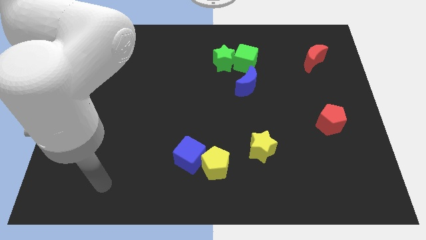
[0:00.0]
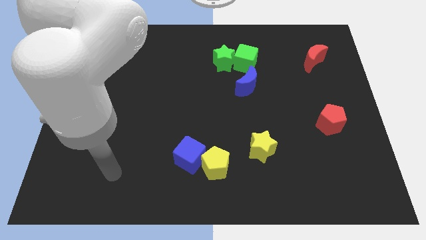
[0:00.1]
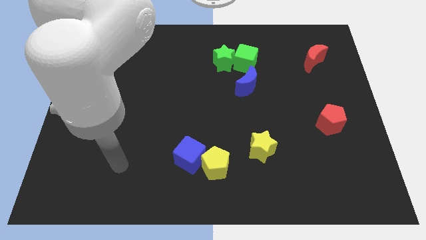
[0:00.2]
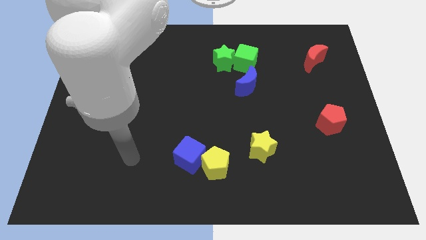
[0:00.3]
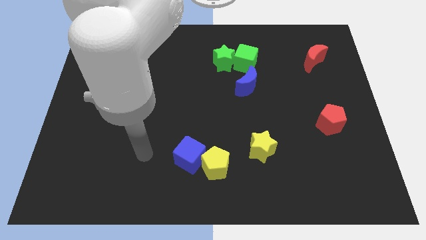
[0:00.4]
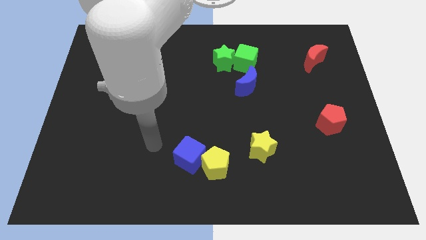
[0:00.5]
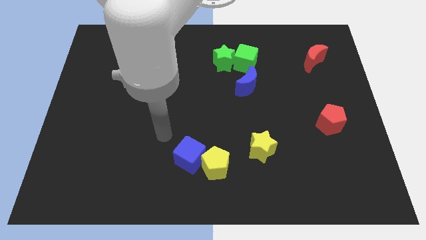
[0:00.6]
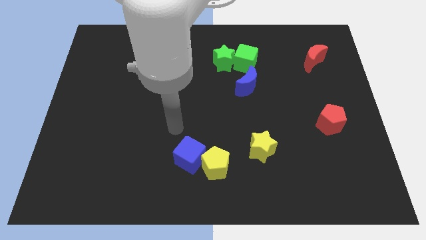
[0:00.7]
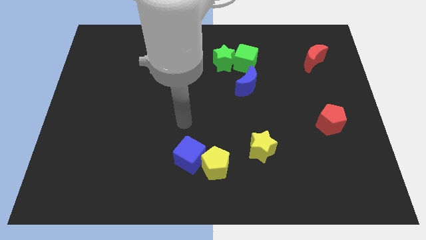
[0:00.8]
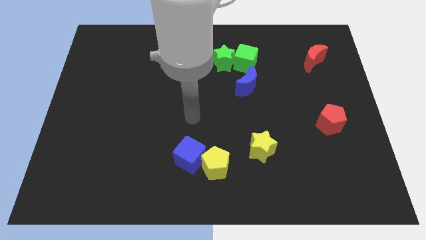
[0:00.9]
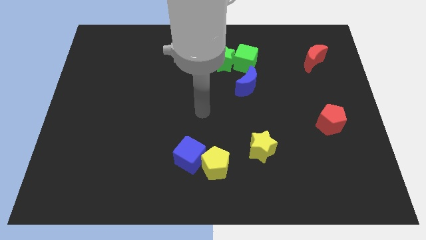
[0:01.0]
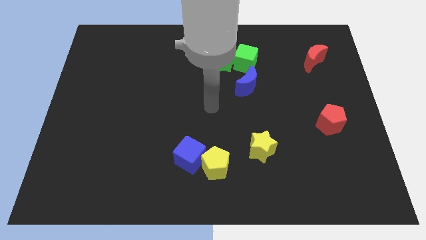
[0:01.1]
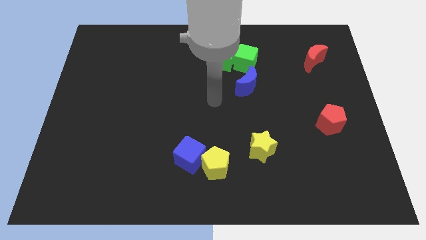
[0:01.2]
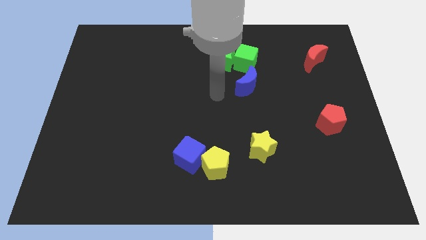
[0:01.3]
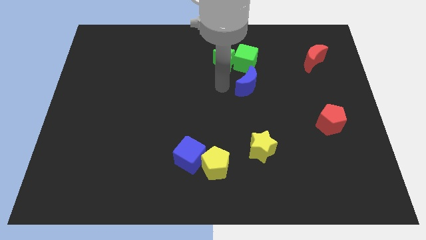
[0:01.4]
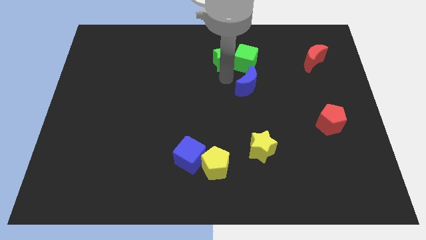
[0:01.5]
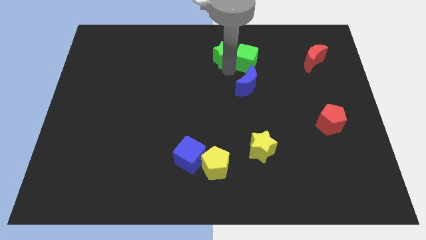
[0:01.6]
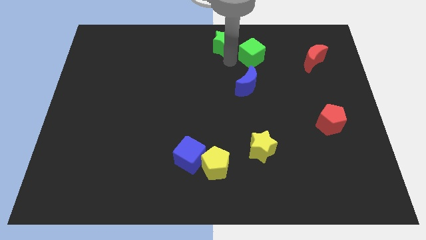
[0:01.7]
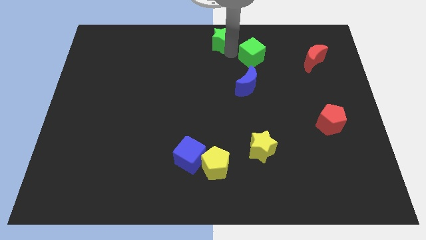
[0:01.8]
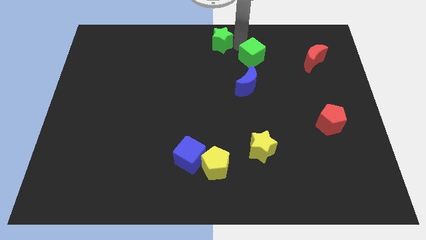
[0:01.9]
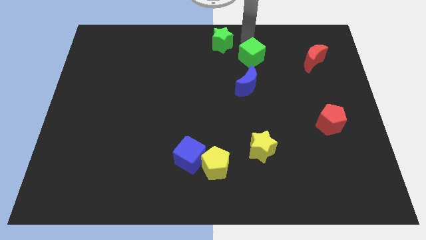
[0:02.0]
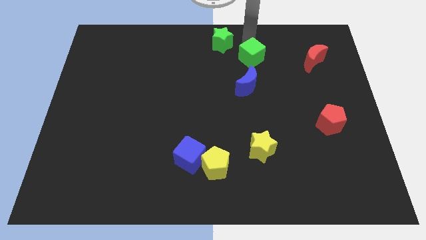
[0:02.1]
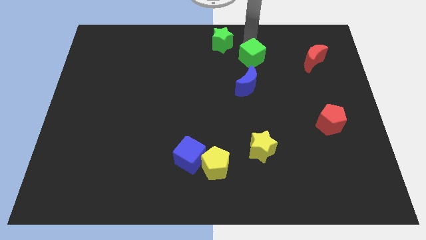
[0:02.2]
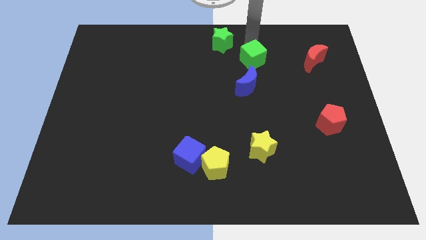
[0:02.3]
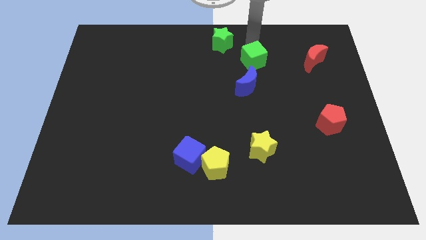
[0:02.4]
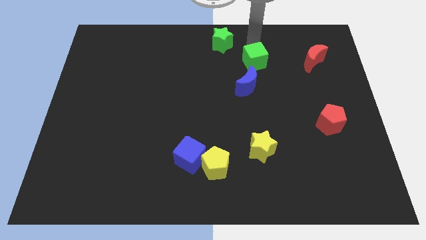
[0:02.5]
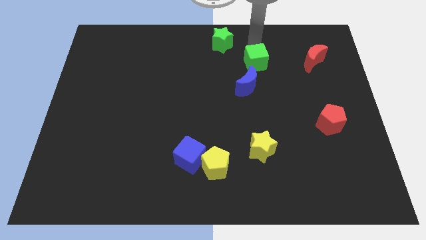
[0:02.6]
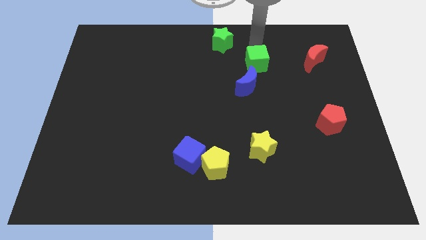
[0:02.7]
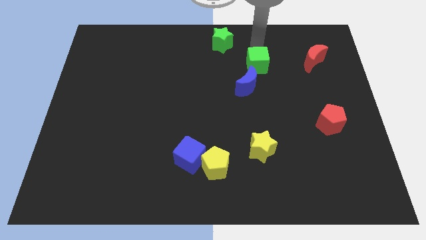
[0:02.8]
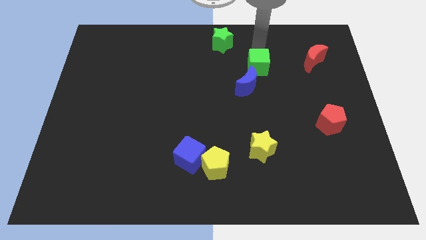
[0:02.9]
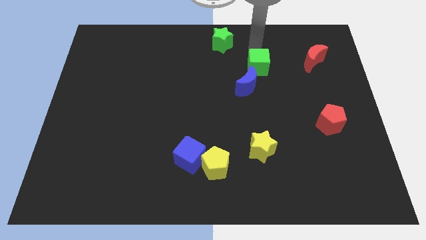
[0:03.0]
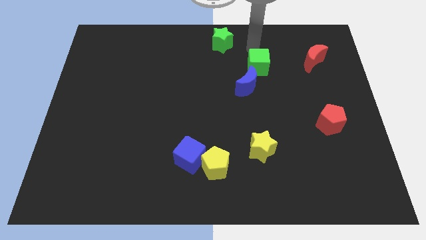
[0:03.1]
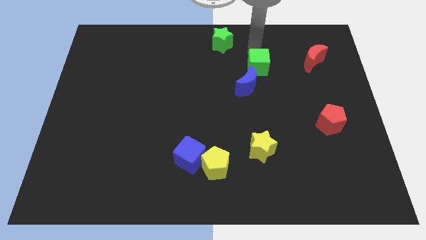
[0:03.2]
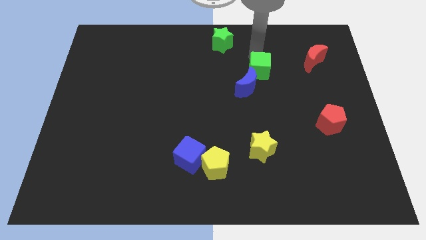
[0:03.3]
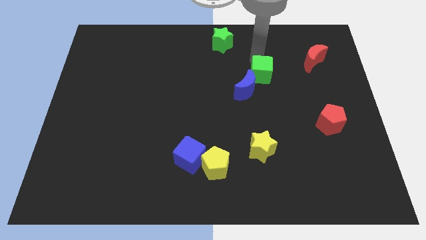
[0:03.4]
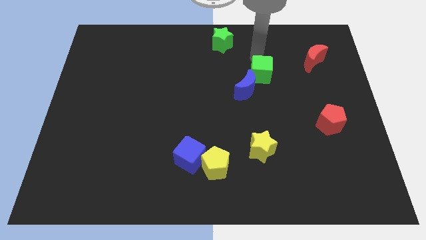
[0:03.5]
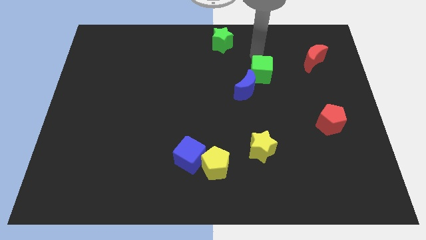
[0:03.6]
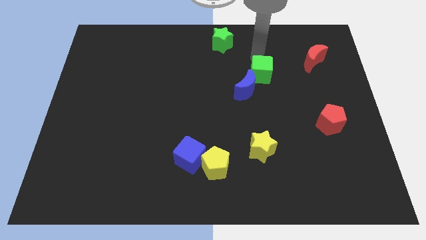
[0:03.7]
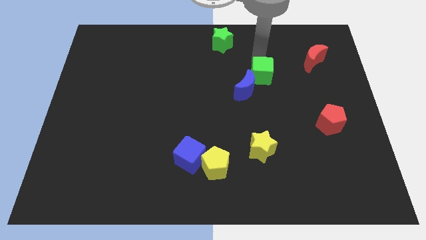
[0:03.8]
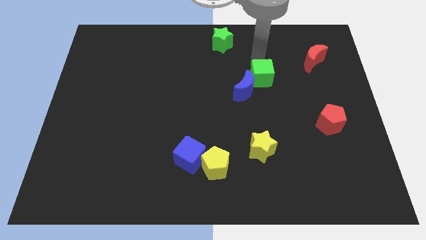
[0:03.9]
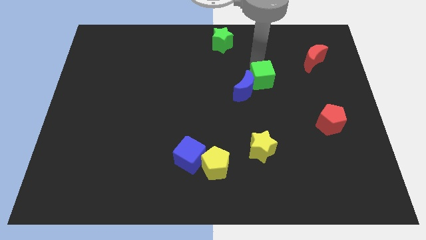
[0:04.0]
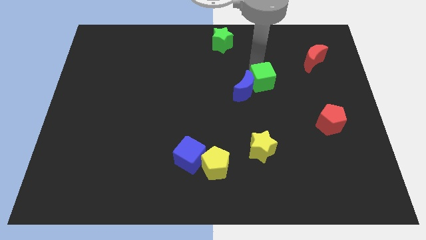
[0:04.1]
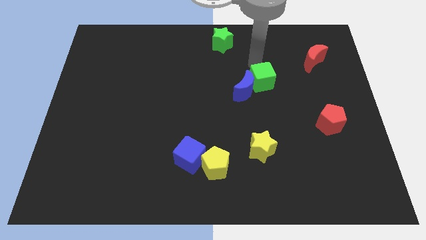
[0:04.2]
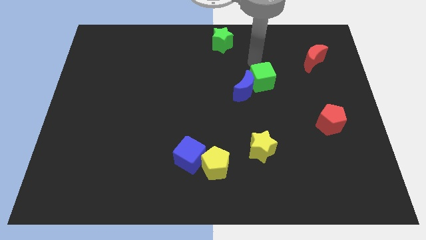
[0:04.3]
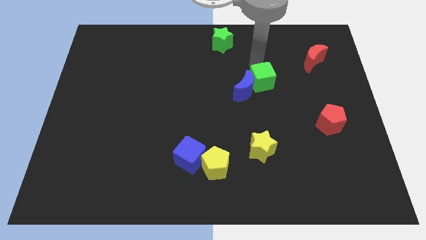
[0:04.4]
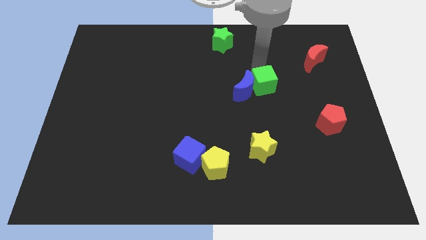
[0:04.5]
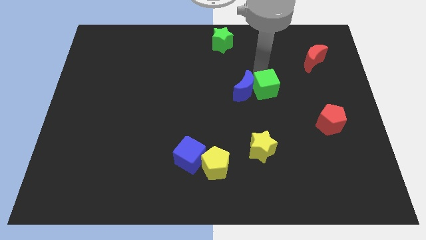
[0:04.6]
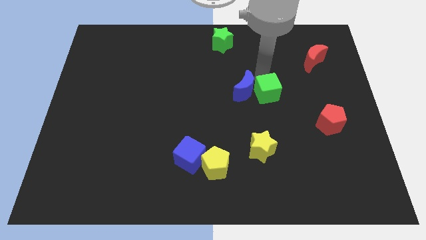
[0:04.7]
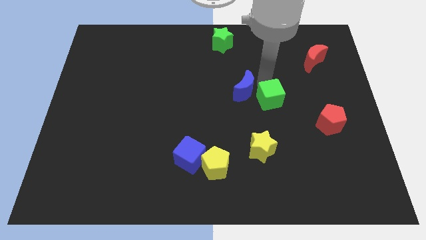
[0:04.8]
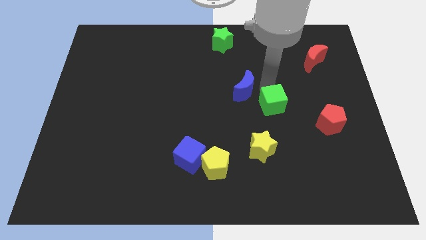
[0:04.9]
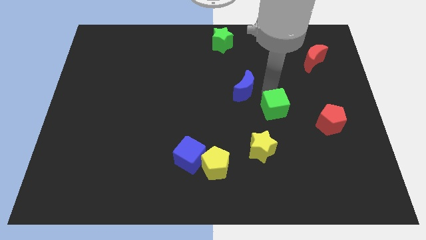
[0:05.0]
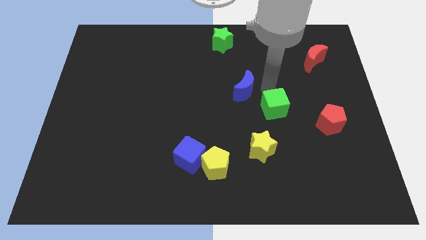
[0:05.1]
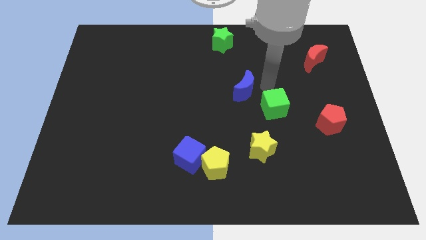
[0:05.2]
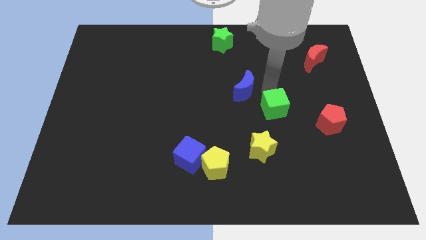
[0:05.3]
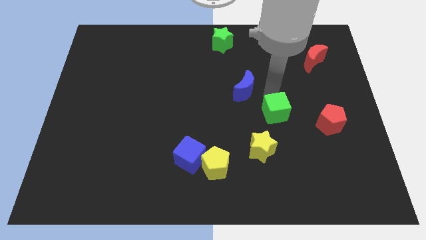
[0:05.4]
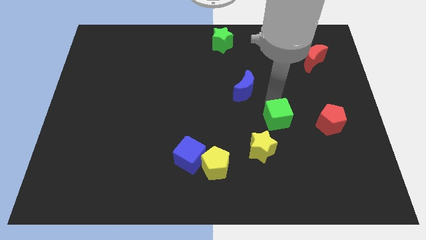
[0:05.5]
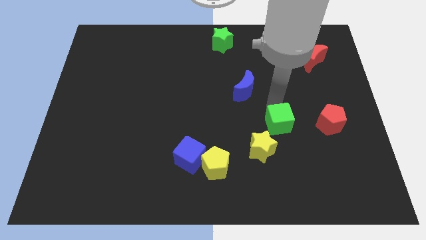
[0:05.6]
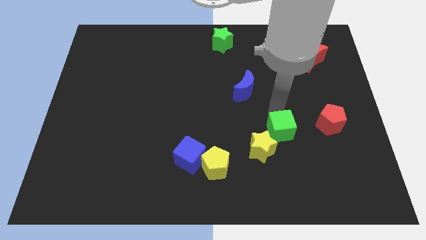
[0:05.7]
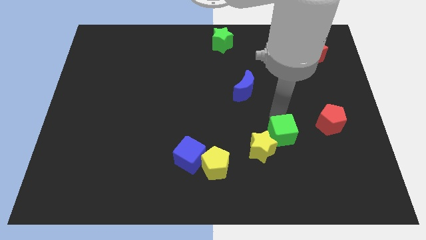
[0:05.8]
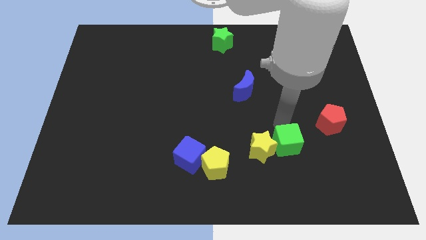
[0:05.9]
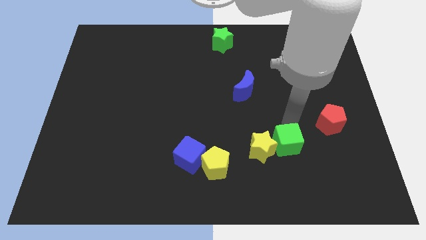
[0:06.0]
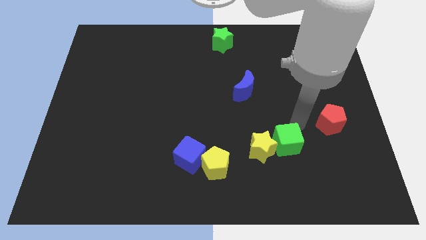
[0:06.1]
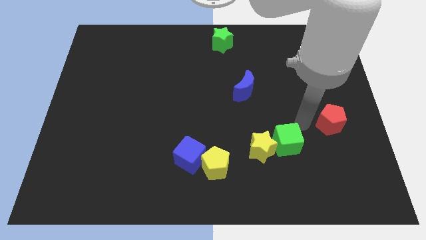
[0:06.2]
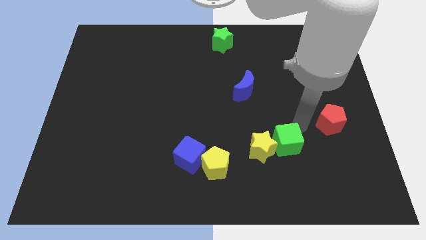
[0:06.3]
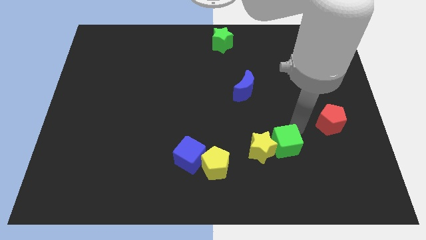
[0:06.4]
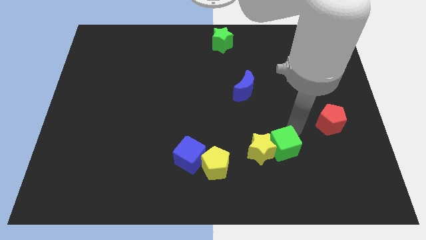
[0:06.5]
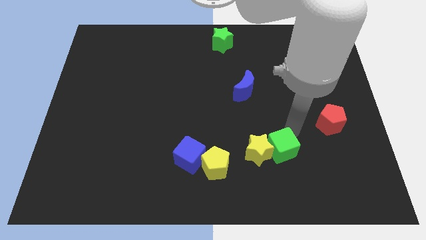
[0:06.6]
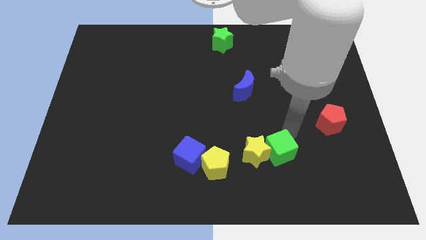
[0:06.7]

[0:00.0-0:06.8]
push the green cube to the right side of the yellow pentagon
